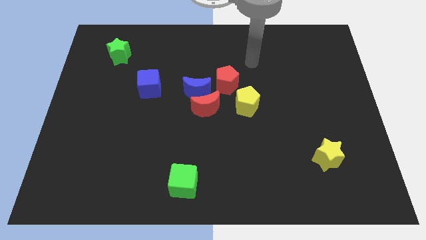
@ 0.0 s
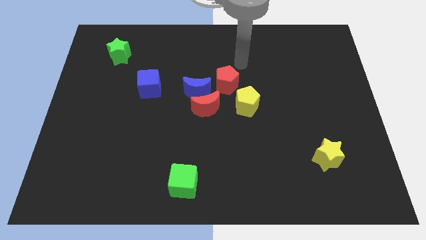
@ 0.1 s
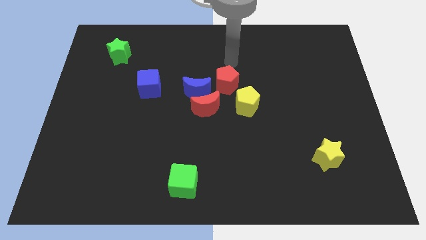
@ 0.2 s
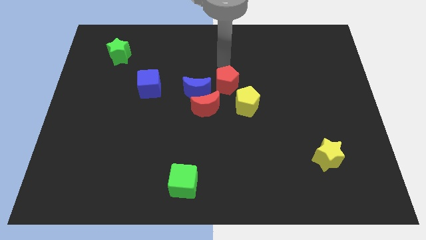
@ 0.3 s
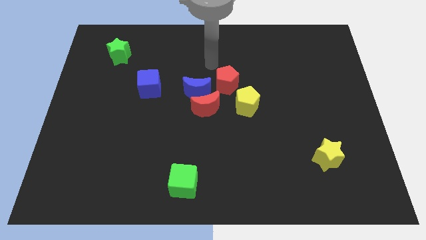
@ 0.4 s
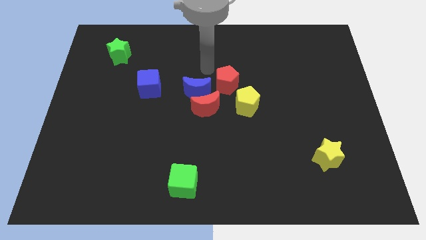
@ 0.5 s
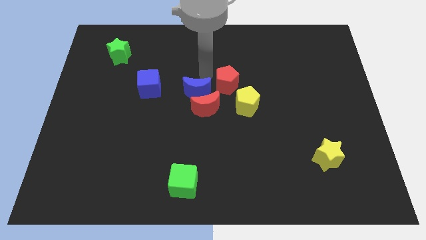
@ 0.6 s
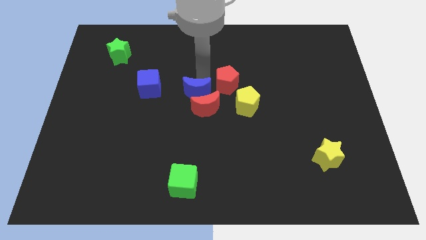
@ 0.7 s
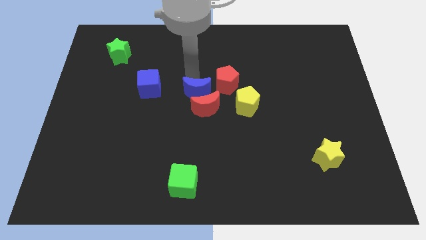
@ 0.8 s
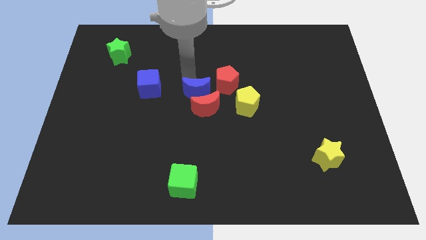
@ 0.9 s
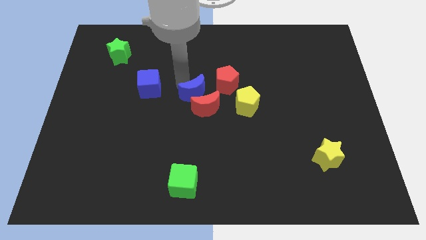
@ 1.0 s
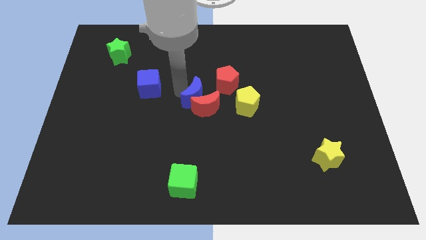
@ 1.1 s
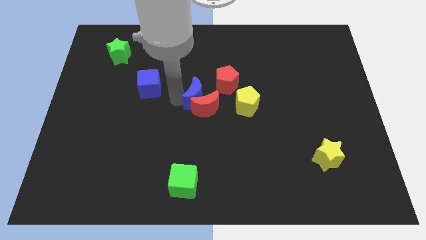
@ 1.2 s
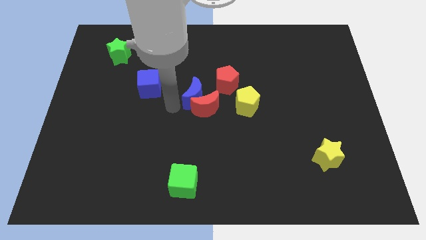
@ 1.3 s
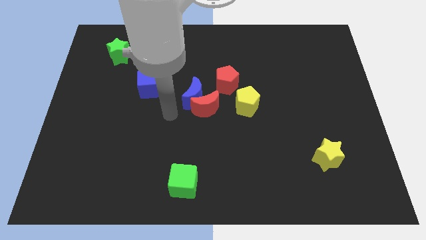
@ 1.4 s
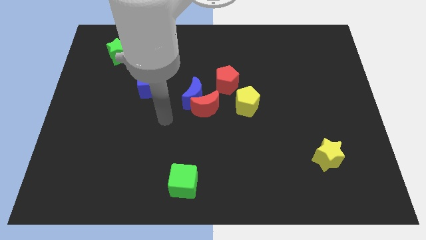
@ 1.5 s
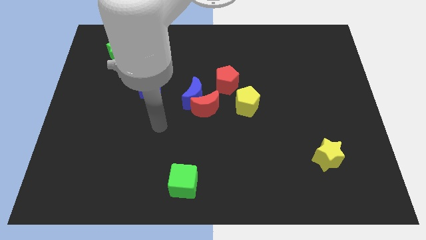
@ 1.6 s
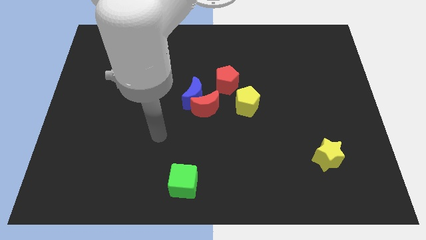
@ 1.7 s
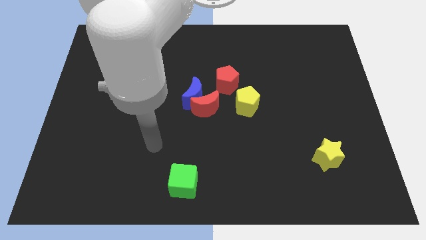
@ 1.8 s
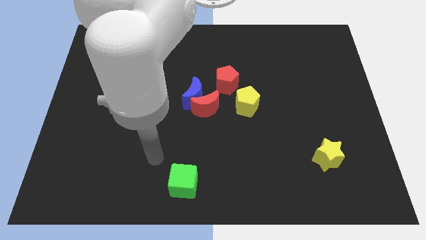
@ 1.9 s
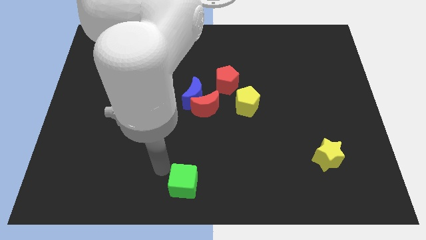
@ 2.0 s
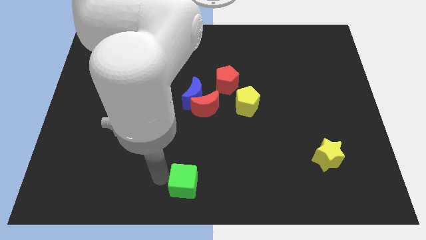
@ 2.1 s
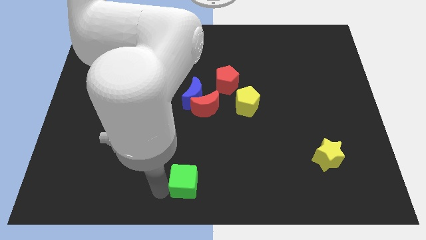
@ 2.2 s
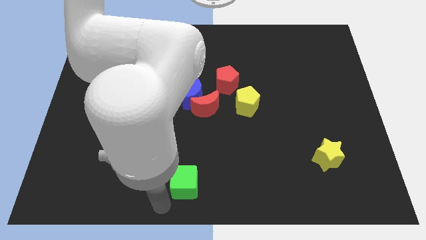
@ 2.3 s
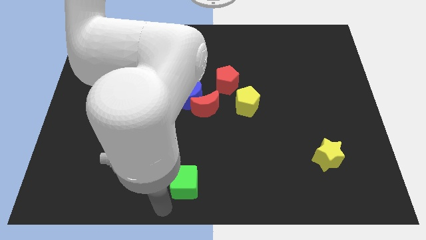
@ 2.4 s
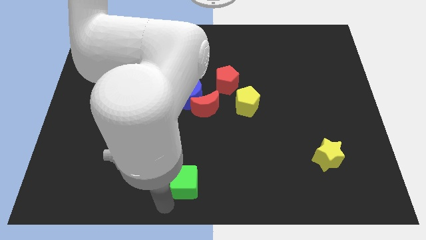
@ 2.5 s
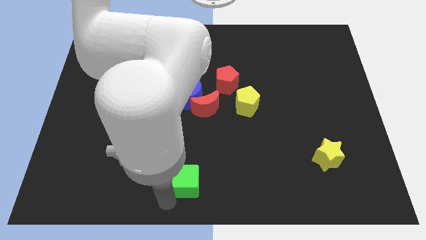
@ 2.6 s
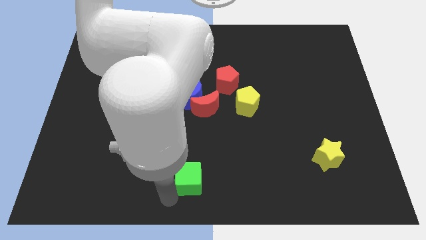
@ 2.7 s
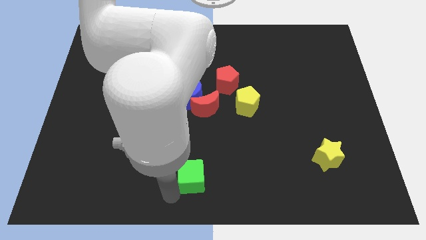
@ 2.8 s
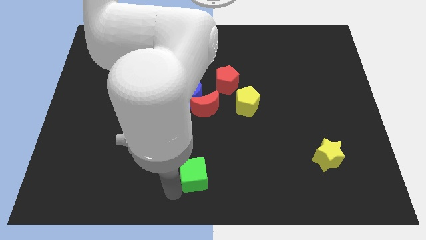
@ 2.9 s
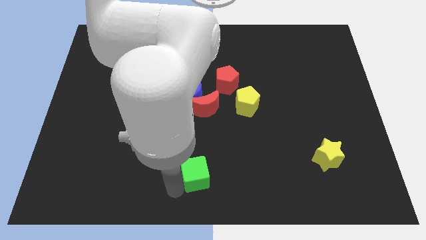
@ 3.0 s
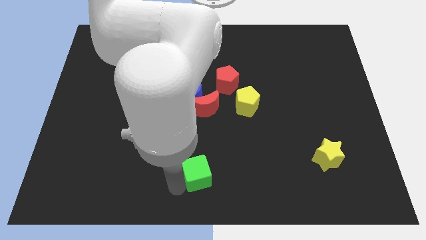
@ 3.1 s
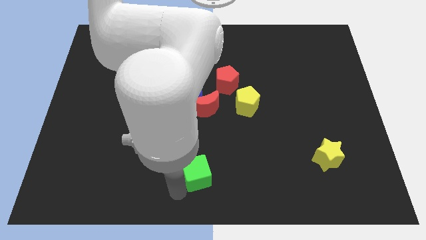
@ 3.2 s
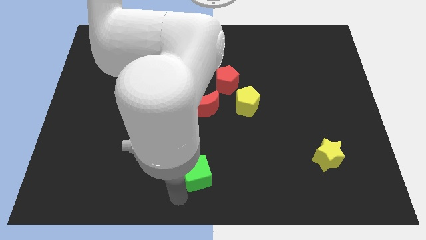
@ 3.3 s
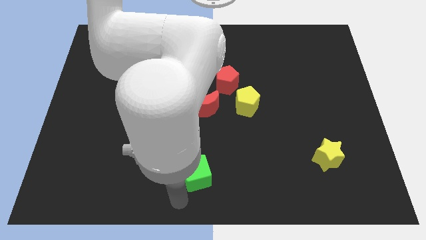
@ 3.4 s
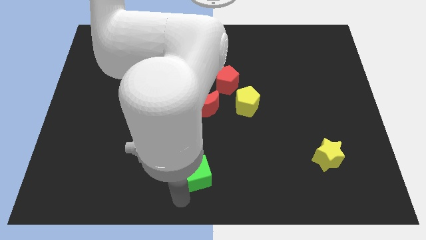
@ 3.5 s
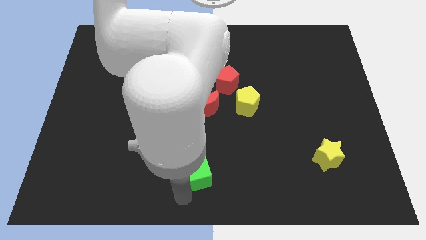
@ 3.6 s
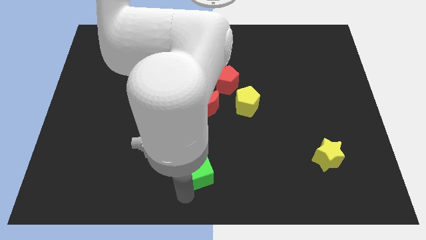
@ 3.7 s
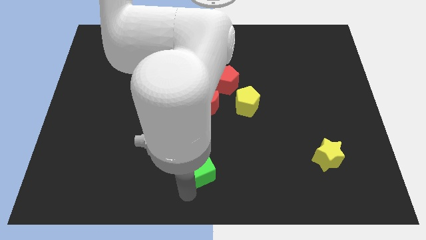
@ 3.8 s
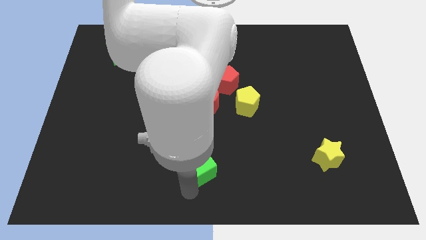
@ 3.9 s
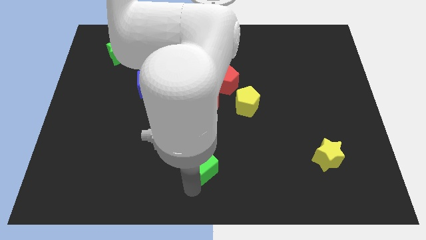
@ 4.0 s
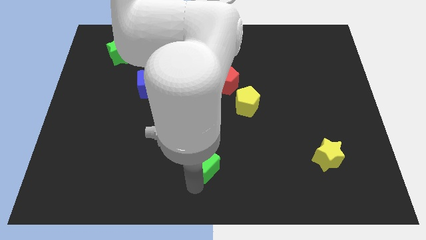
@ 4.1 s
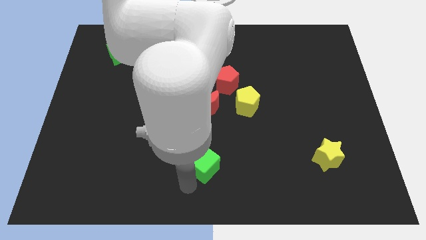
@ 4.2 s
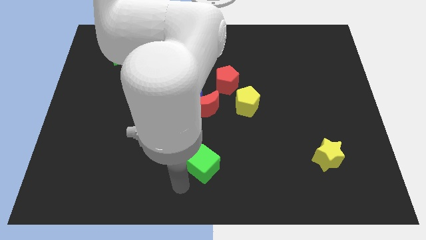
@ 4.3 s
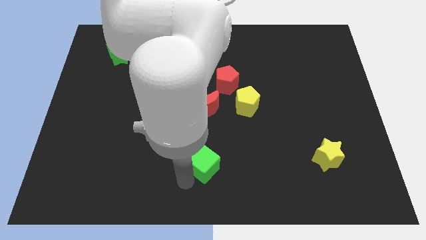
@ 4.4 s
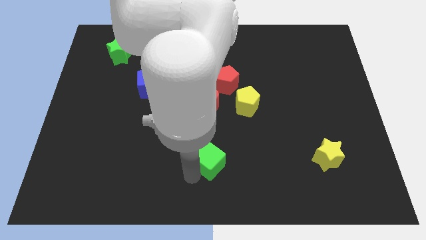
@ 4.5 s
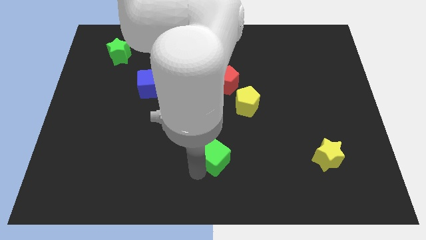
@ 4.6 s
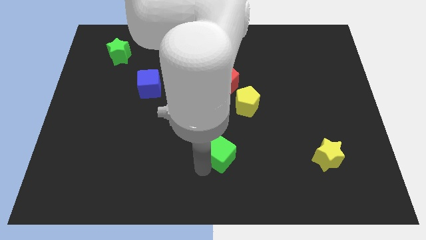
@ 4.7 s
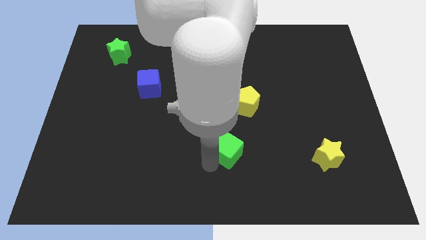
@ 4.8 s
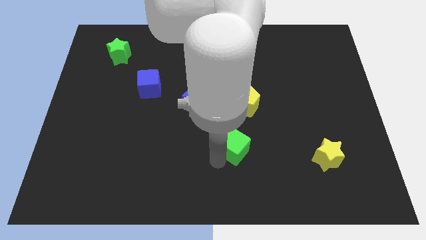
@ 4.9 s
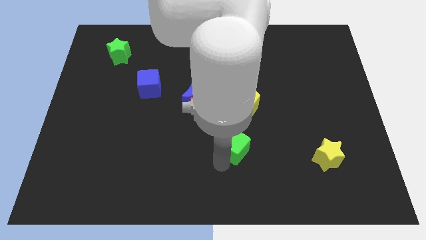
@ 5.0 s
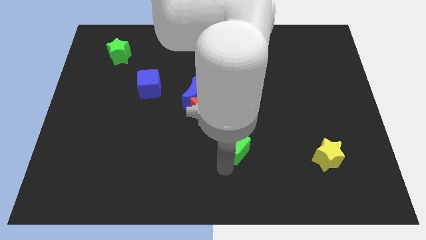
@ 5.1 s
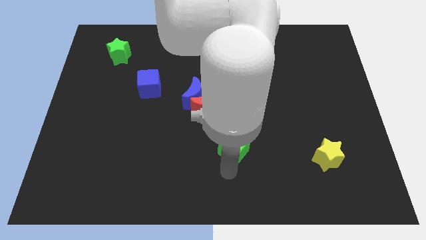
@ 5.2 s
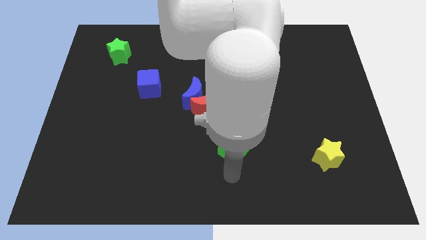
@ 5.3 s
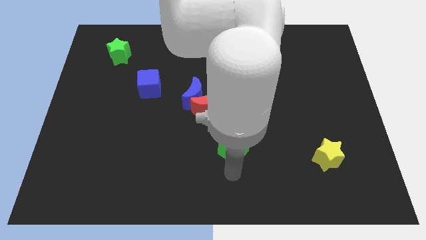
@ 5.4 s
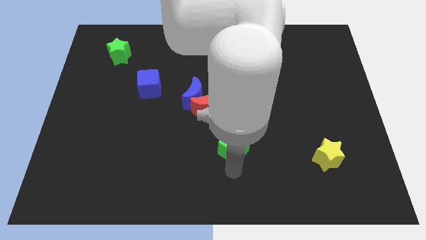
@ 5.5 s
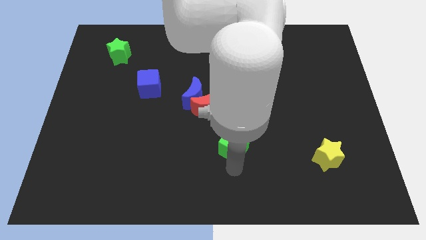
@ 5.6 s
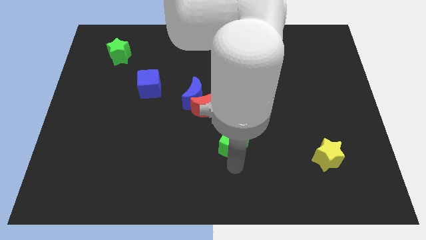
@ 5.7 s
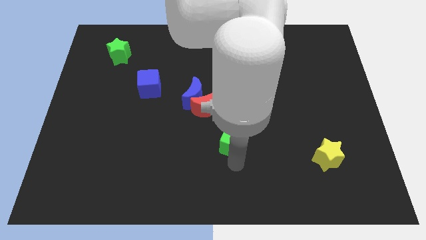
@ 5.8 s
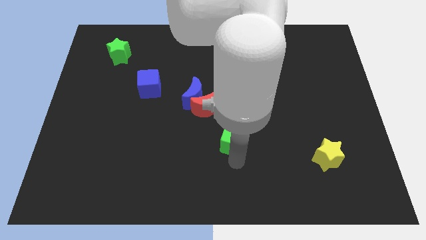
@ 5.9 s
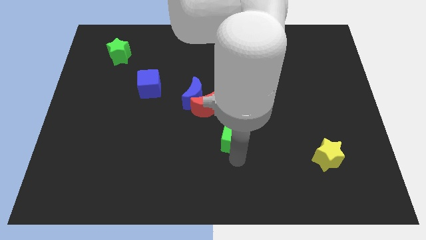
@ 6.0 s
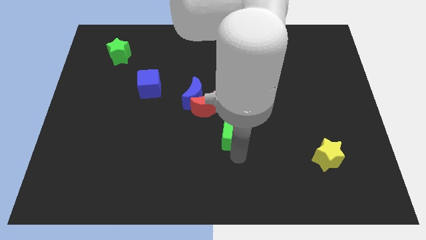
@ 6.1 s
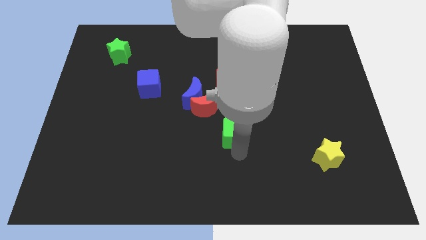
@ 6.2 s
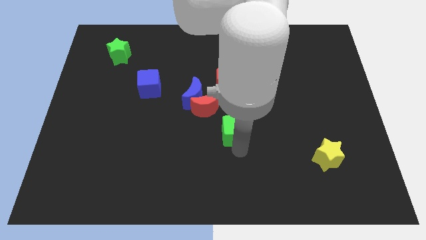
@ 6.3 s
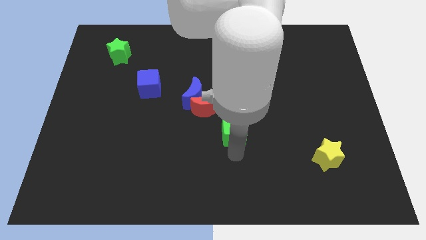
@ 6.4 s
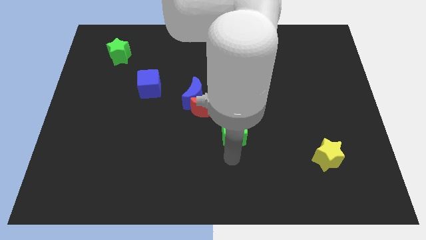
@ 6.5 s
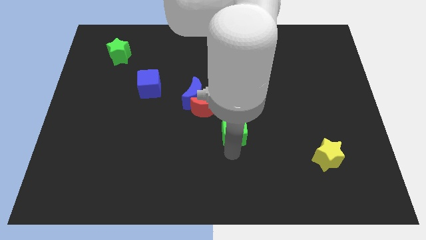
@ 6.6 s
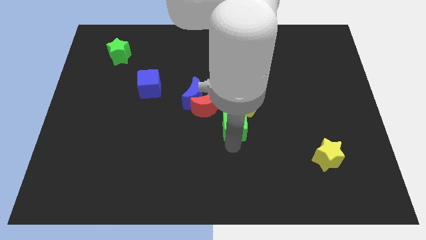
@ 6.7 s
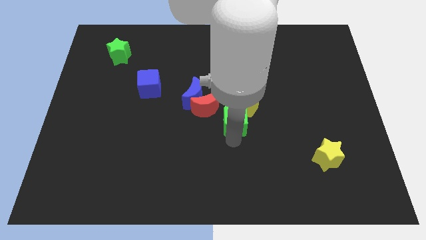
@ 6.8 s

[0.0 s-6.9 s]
slide the green cube towards the yellow pentagon

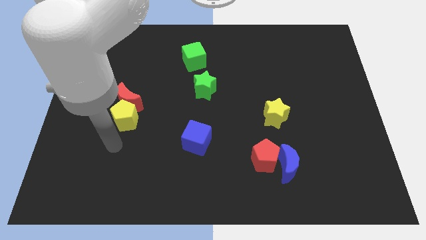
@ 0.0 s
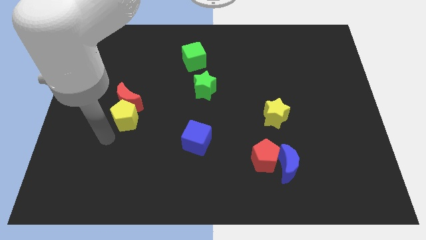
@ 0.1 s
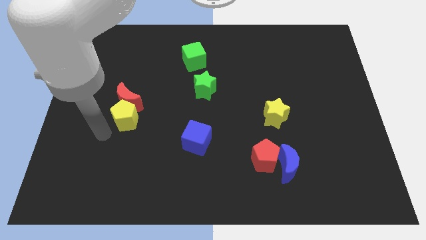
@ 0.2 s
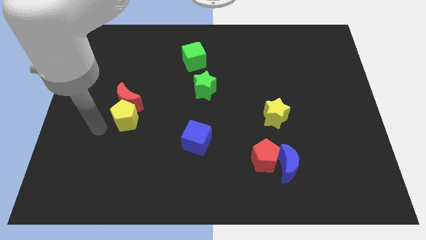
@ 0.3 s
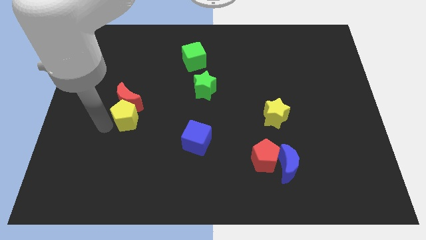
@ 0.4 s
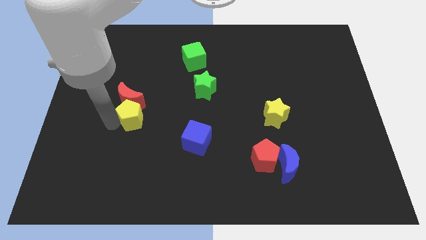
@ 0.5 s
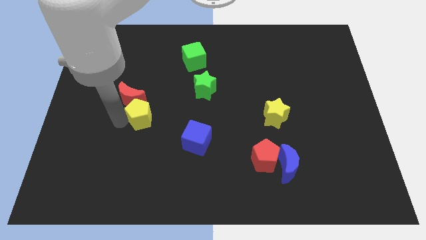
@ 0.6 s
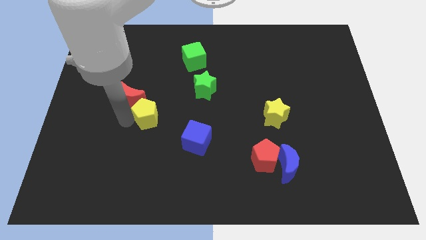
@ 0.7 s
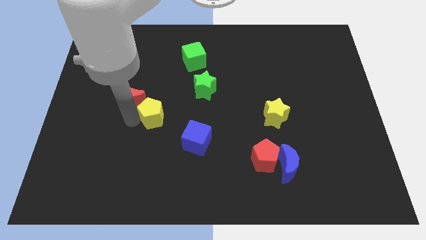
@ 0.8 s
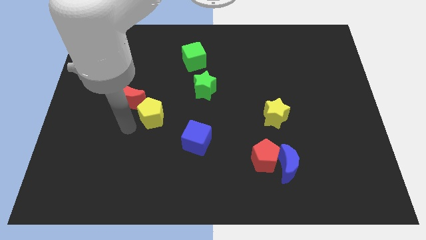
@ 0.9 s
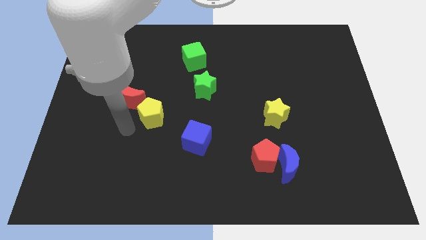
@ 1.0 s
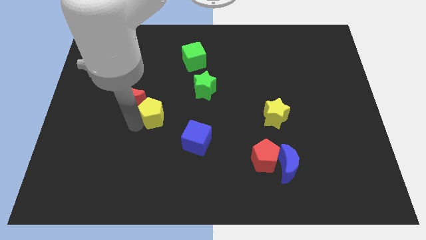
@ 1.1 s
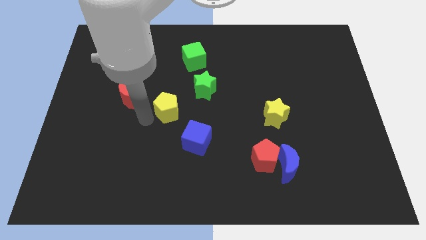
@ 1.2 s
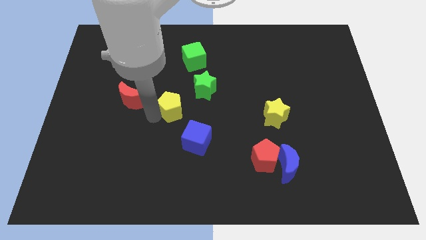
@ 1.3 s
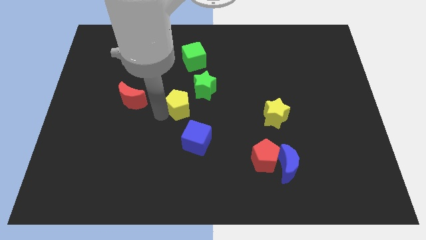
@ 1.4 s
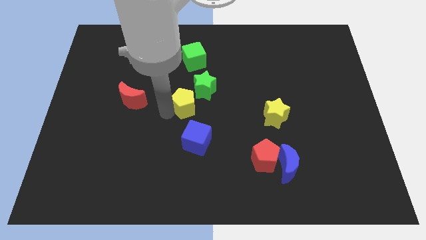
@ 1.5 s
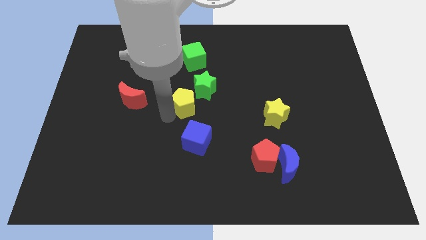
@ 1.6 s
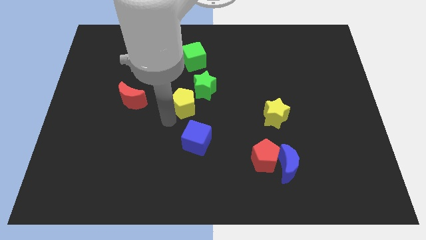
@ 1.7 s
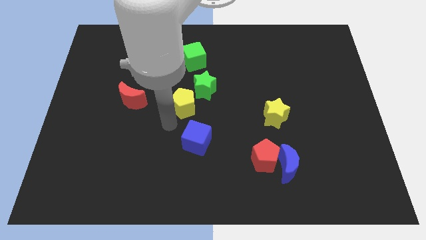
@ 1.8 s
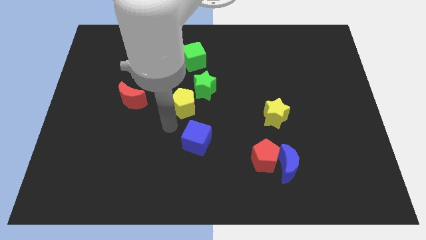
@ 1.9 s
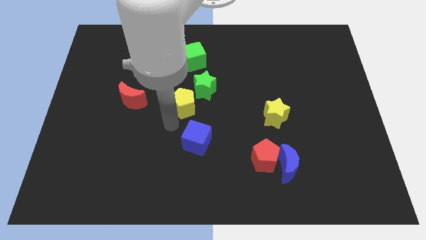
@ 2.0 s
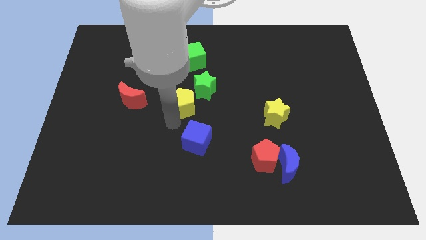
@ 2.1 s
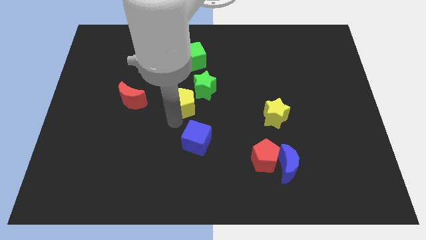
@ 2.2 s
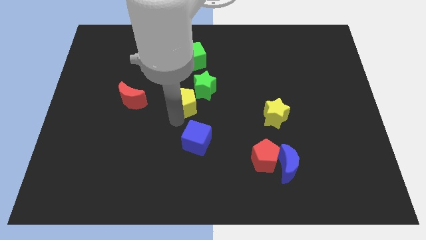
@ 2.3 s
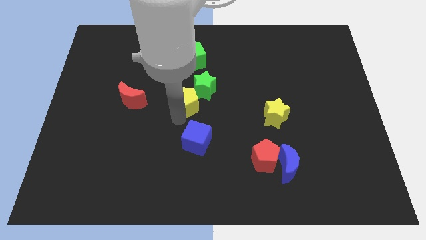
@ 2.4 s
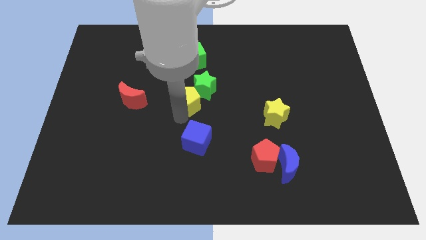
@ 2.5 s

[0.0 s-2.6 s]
slide the yellow pentagon close to the green star
